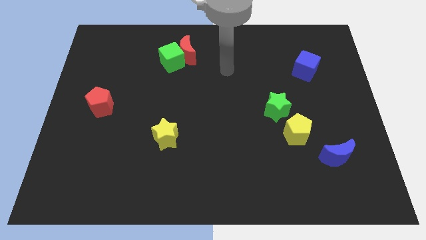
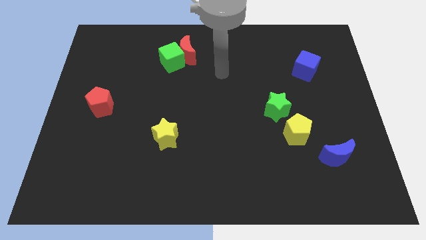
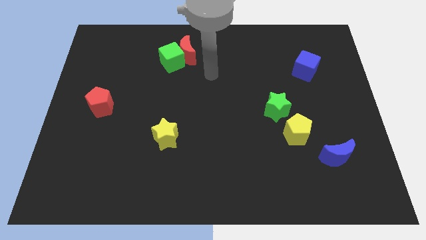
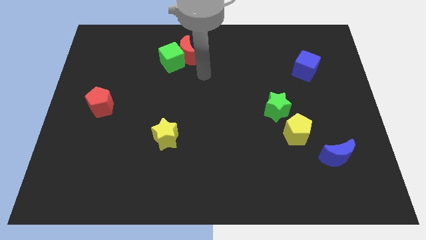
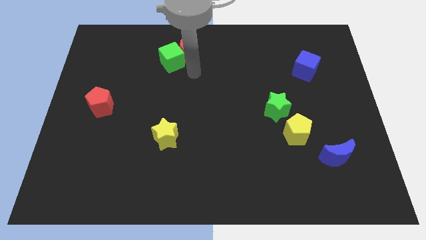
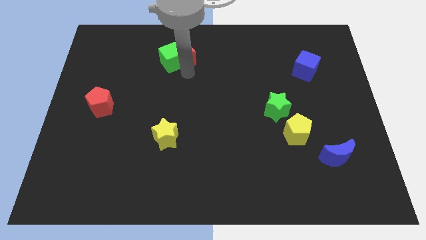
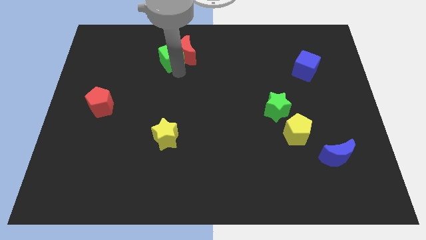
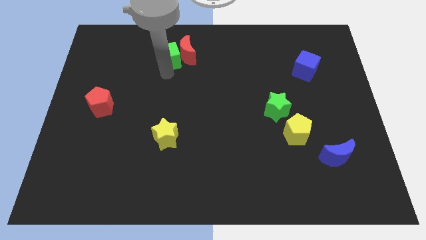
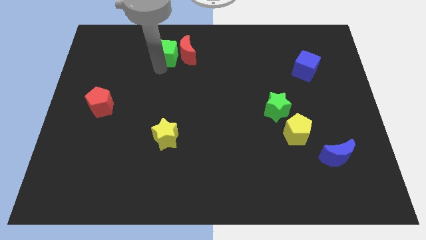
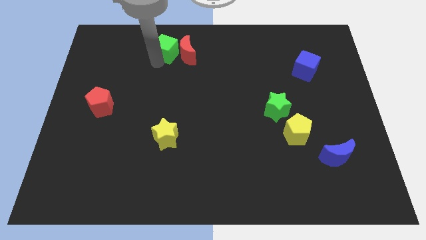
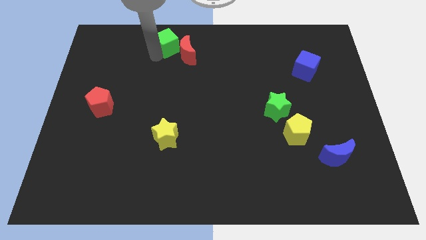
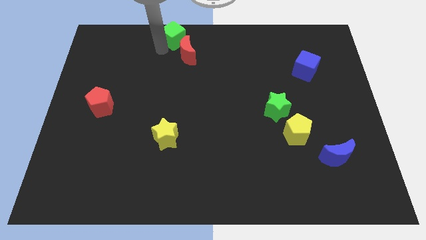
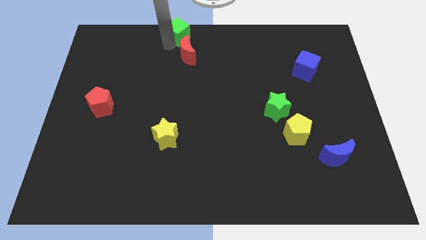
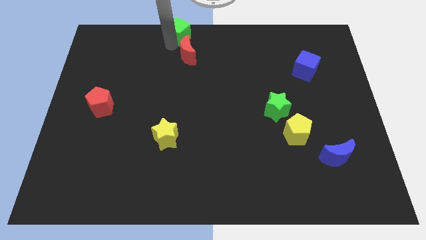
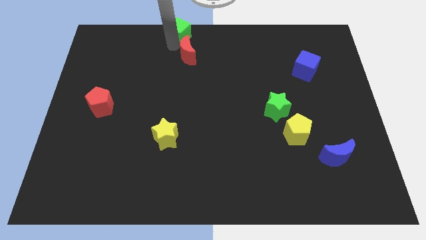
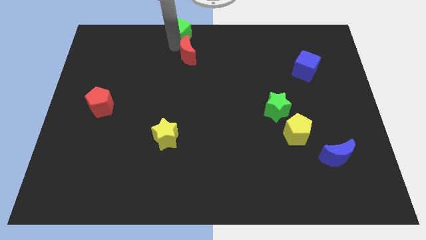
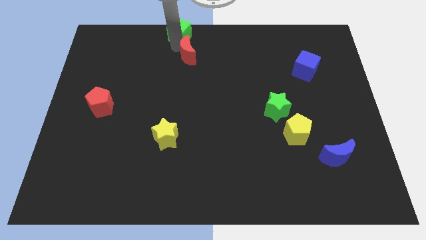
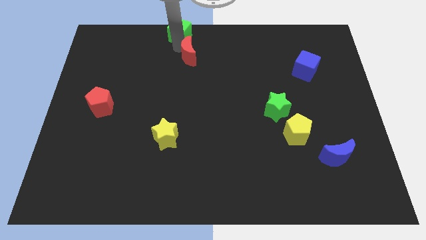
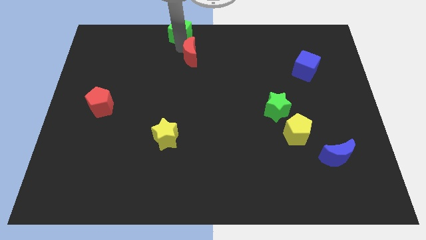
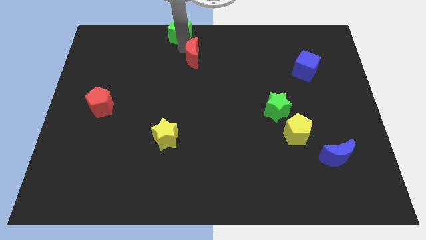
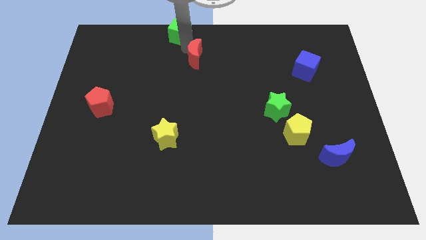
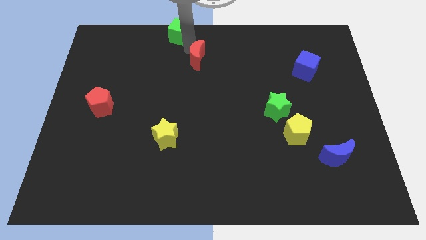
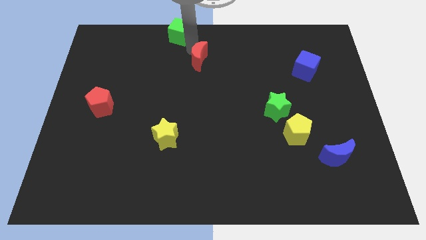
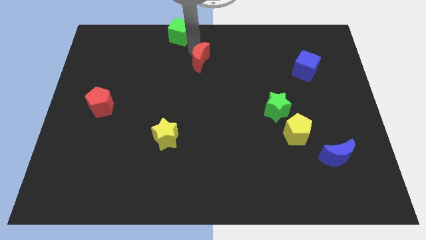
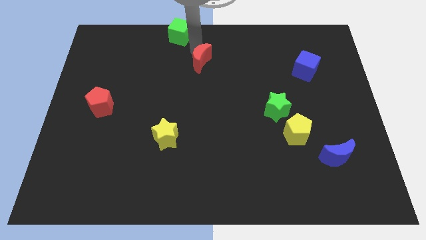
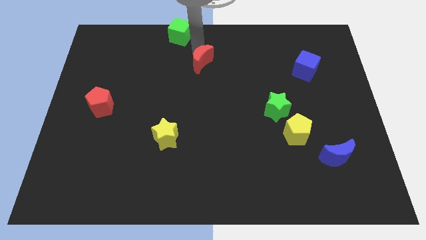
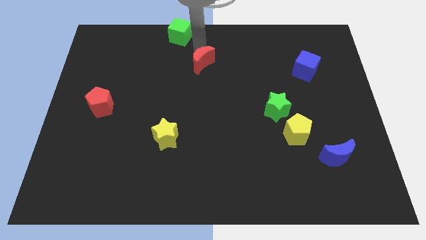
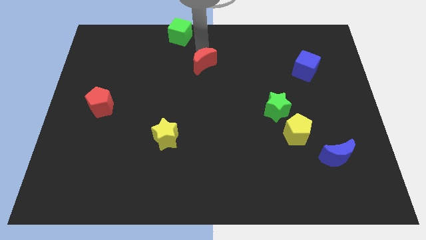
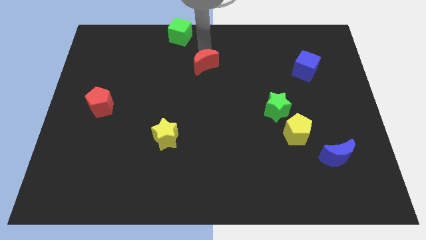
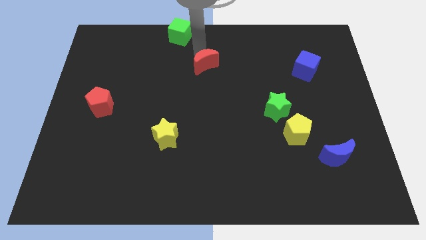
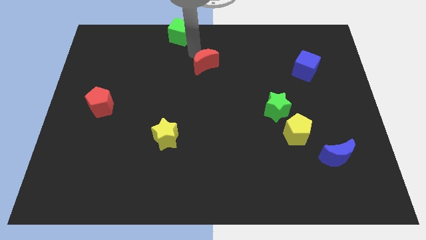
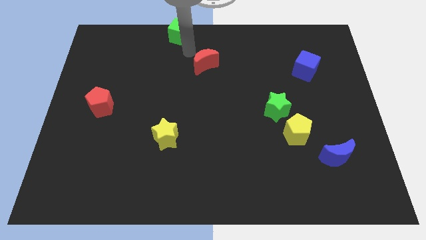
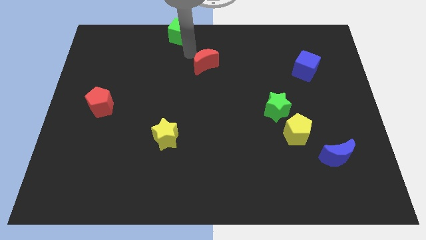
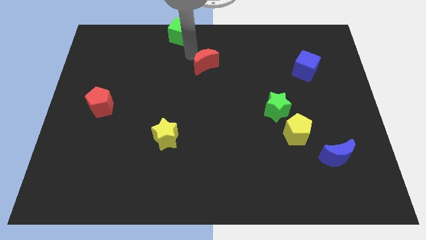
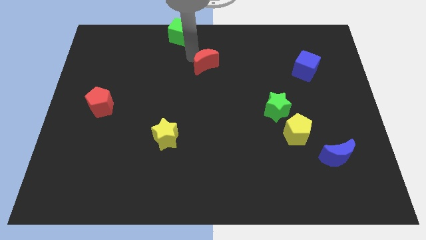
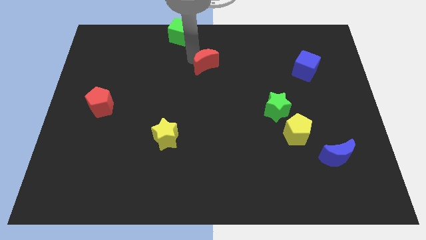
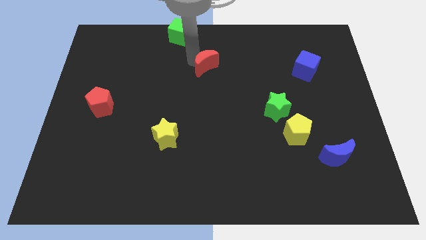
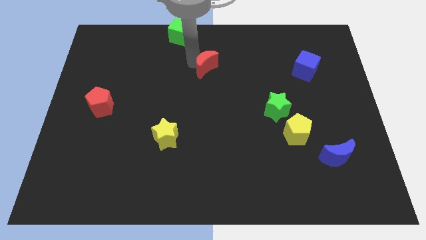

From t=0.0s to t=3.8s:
slide the red moon down and right diagonally a bit

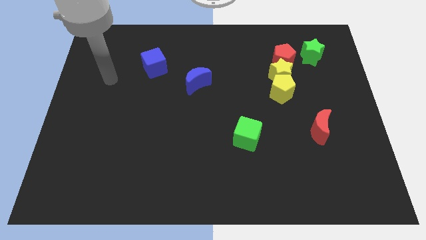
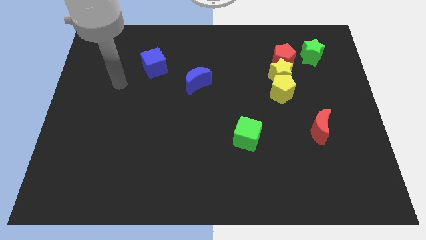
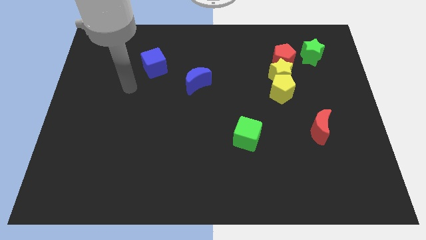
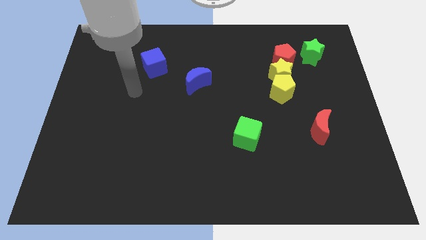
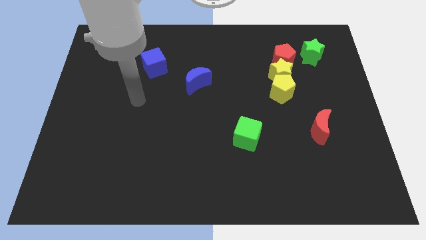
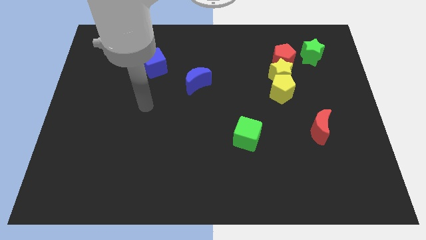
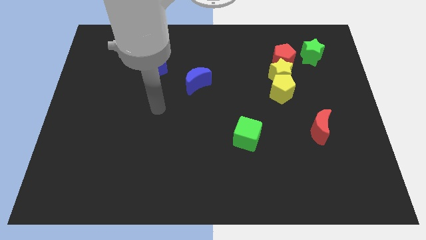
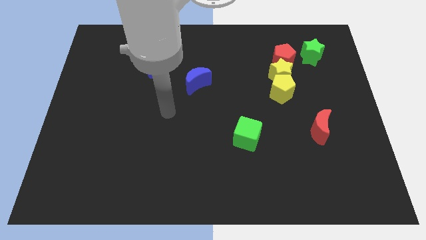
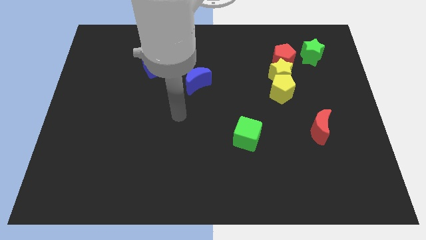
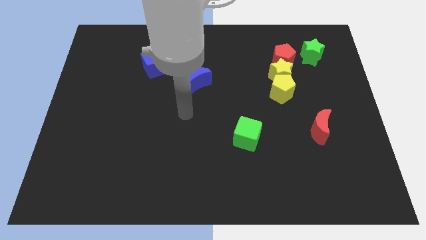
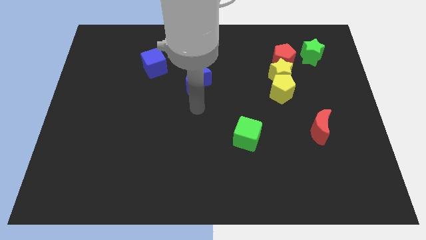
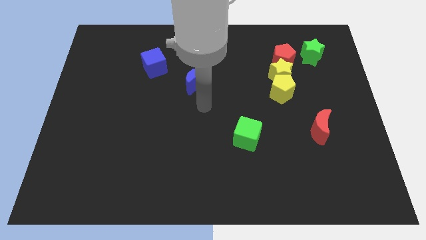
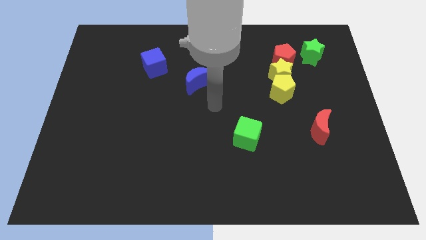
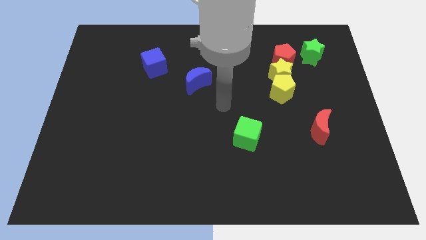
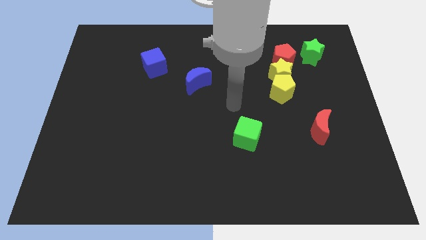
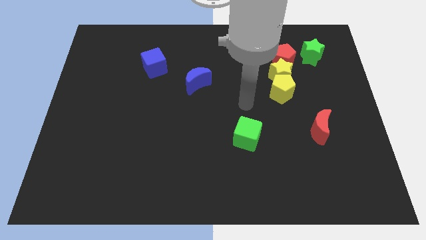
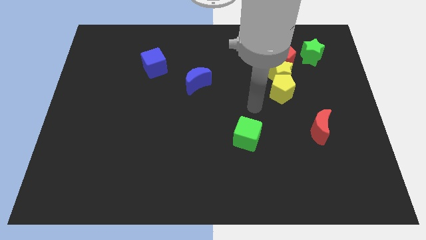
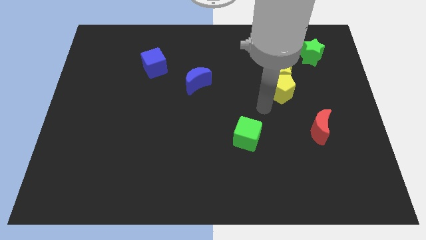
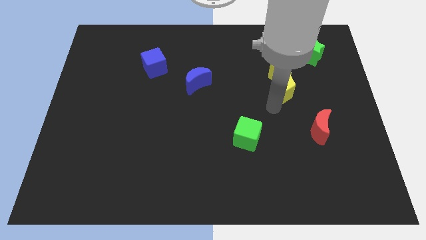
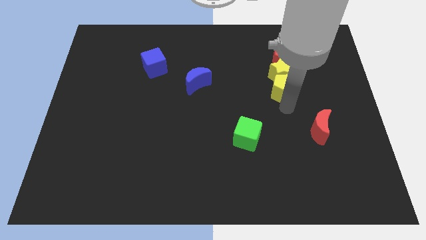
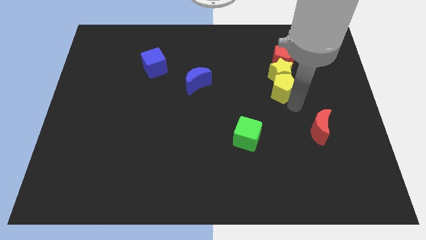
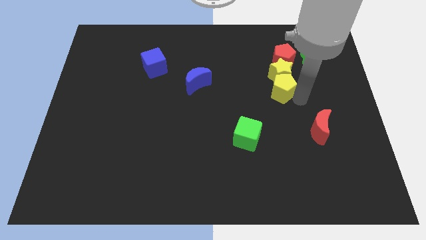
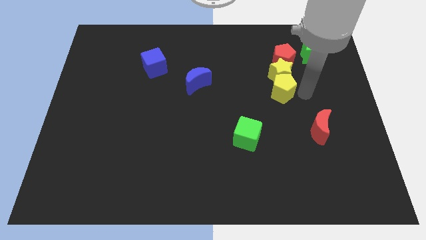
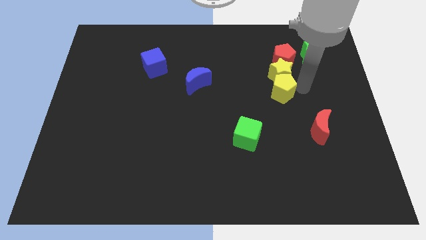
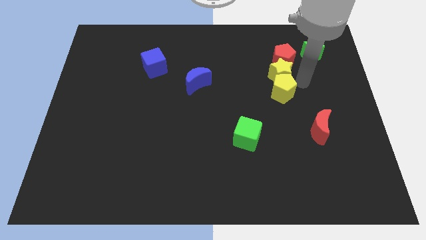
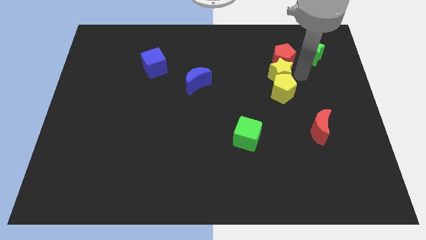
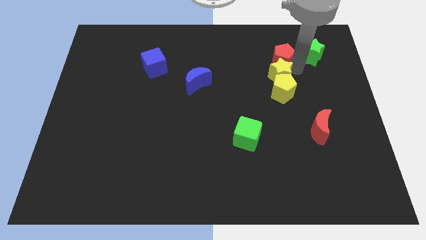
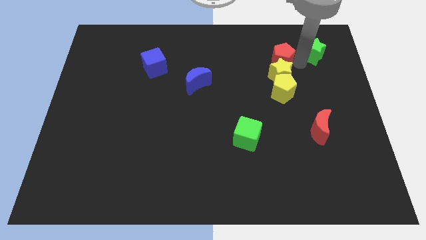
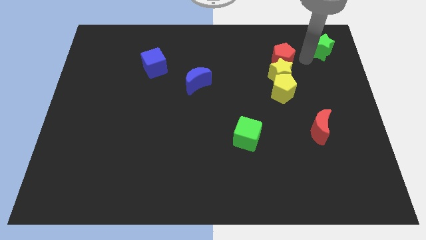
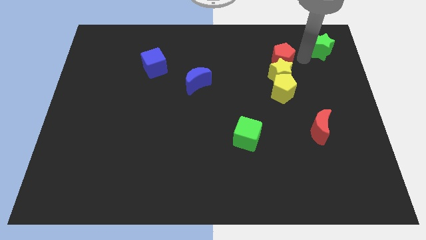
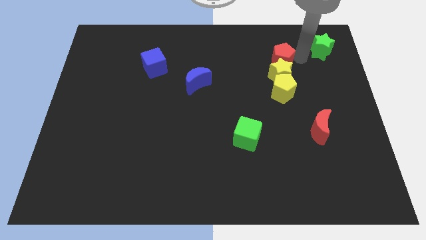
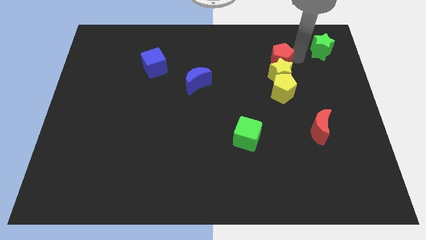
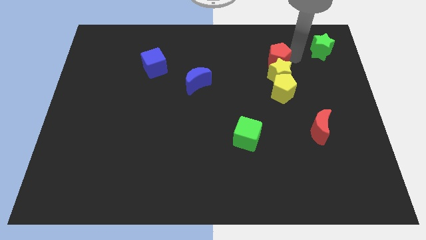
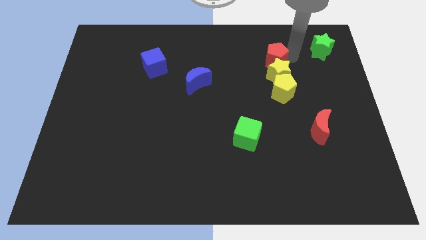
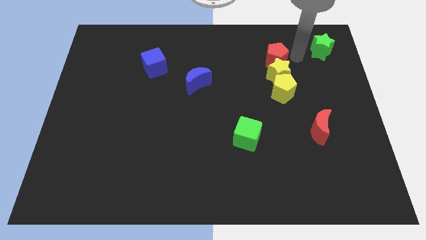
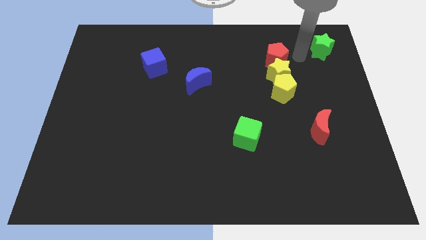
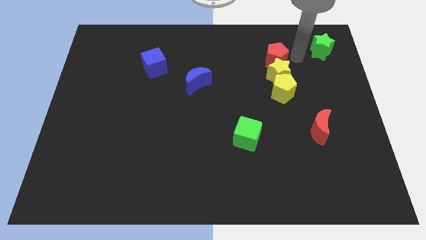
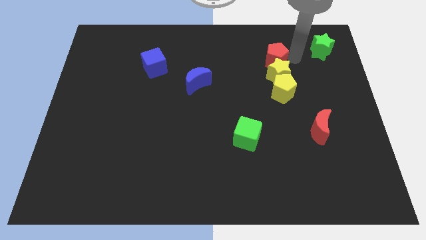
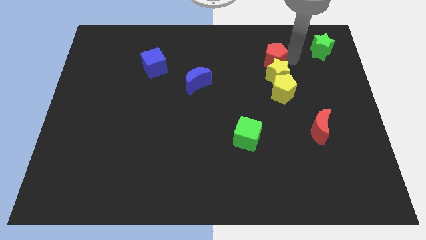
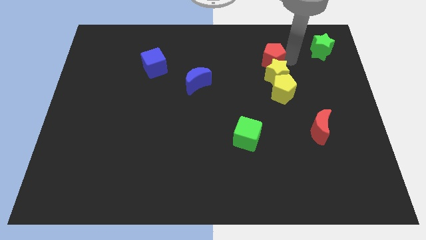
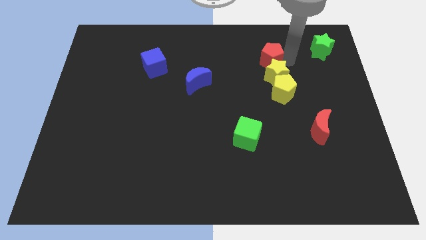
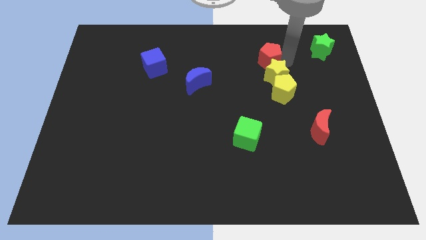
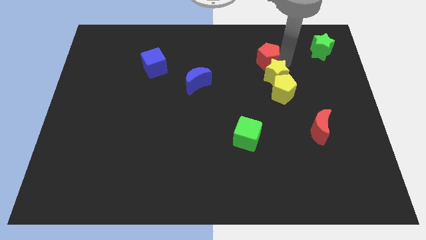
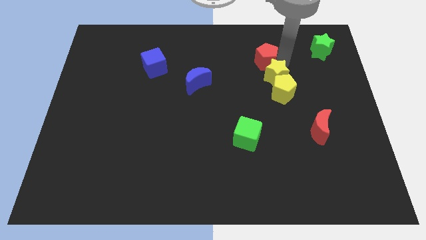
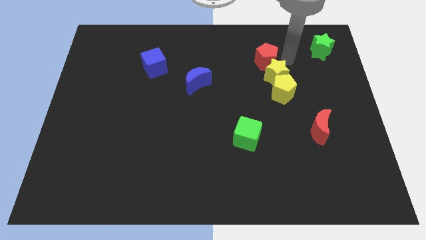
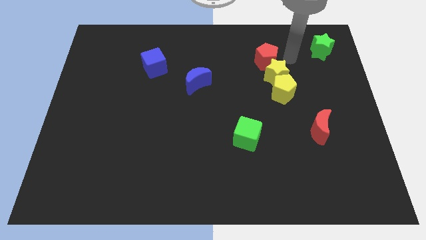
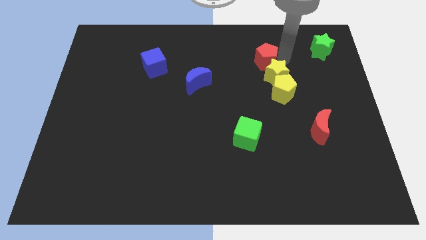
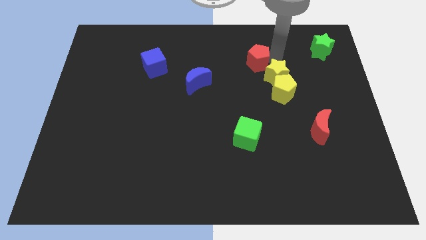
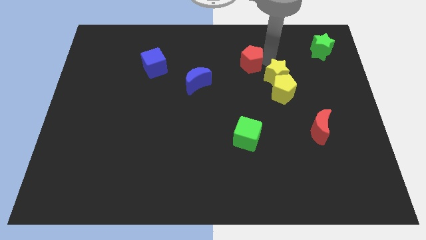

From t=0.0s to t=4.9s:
move the red pentagon a bit to the left
